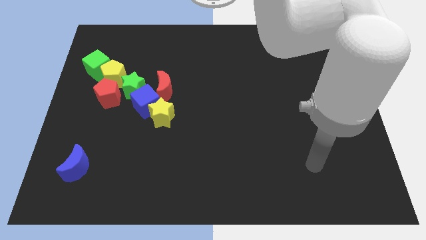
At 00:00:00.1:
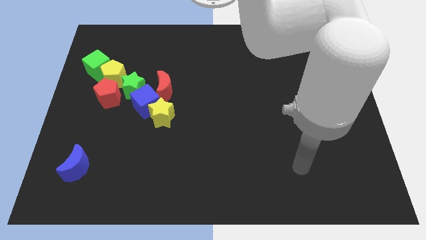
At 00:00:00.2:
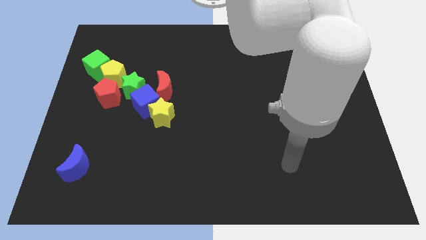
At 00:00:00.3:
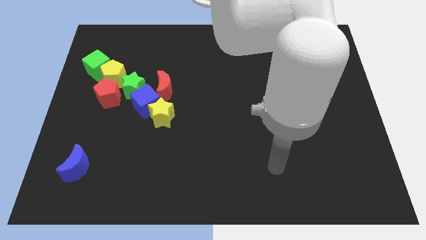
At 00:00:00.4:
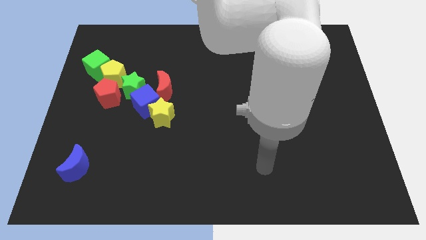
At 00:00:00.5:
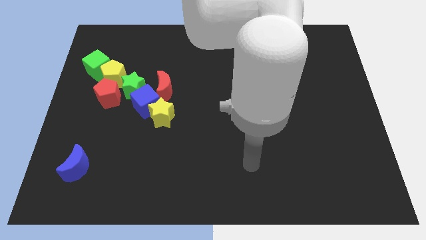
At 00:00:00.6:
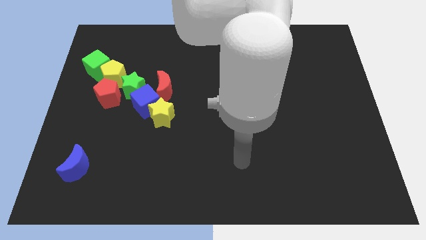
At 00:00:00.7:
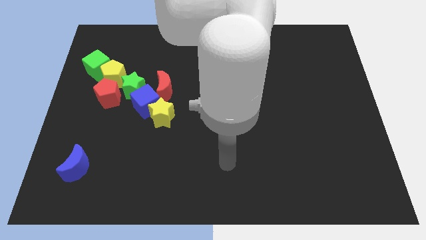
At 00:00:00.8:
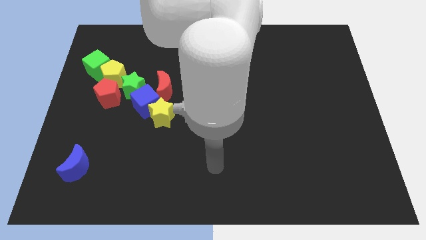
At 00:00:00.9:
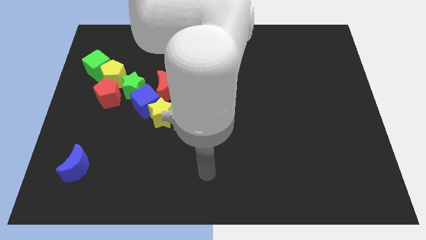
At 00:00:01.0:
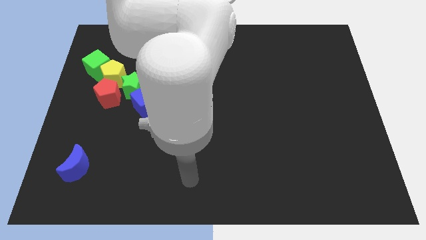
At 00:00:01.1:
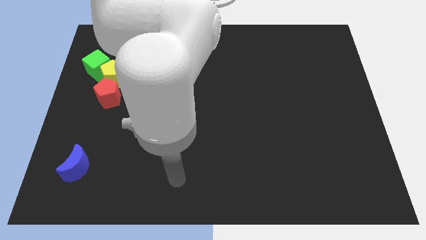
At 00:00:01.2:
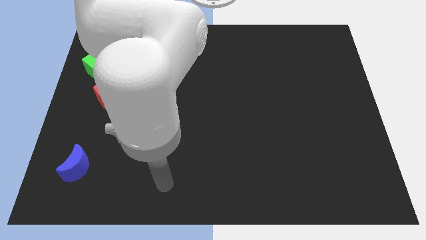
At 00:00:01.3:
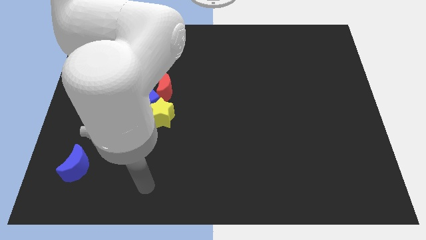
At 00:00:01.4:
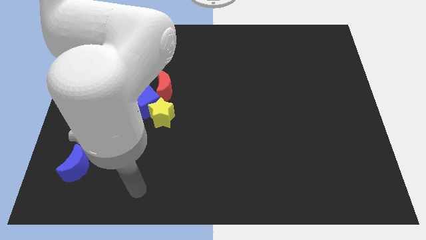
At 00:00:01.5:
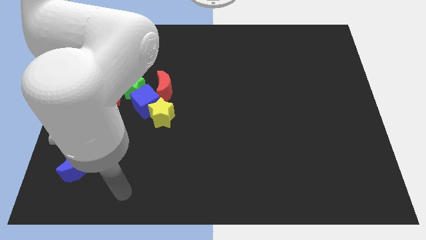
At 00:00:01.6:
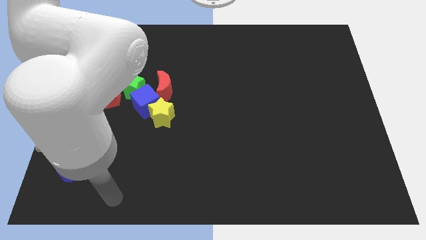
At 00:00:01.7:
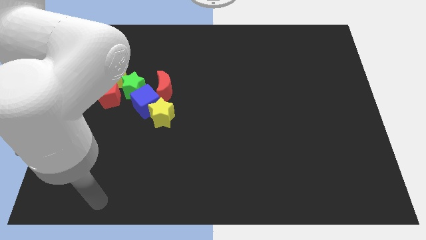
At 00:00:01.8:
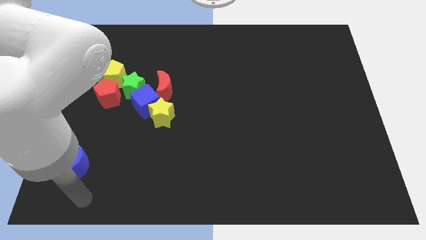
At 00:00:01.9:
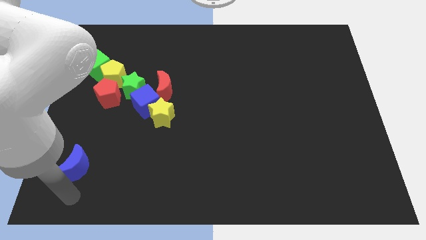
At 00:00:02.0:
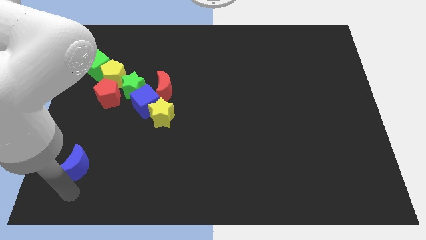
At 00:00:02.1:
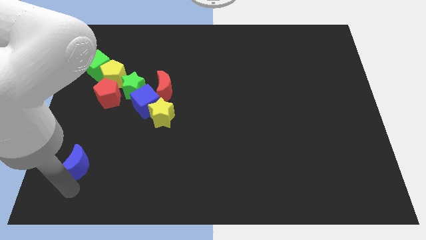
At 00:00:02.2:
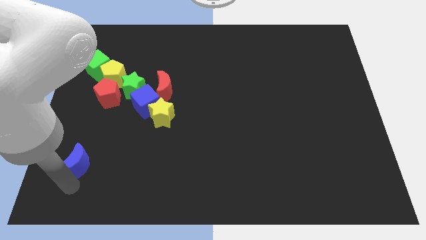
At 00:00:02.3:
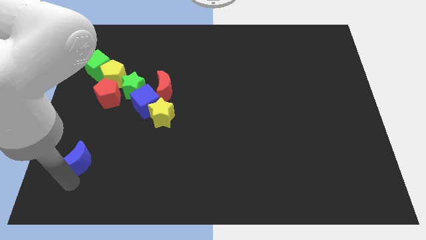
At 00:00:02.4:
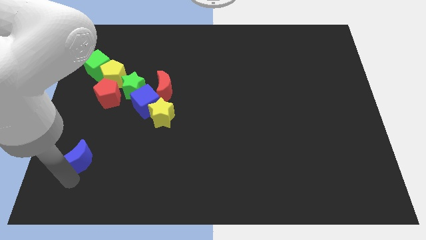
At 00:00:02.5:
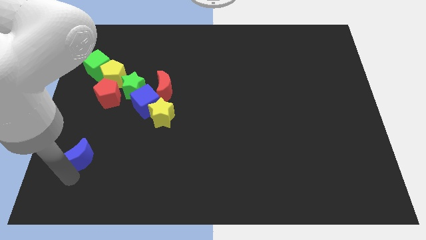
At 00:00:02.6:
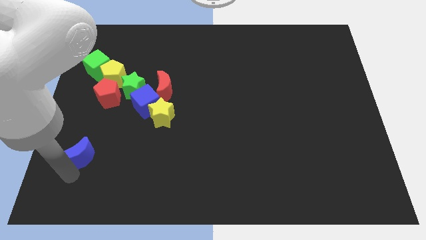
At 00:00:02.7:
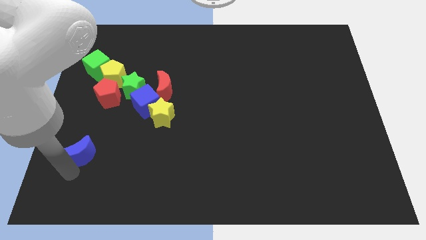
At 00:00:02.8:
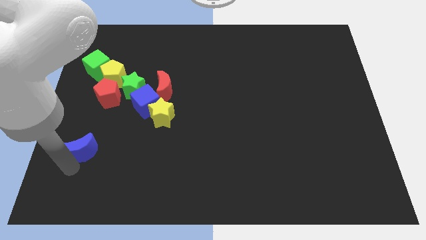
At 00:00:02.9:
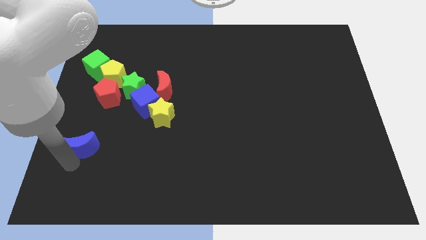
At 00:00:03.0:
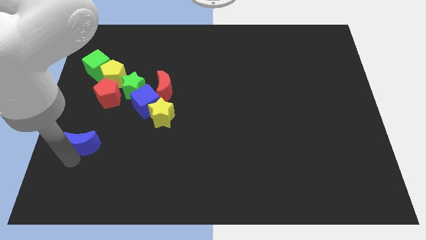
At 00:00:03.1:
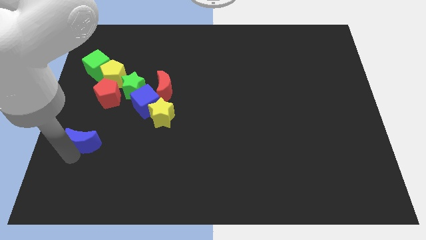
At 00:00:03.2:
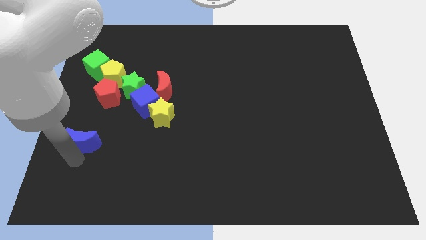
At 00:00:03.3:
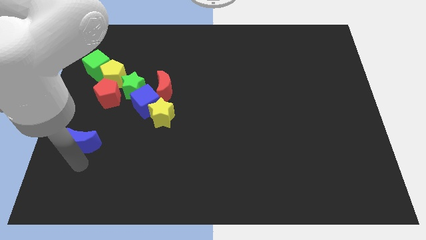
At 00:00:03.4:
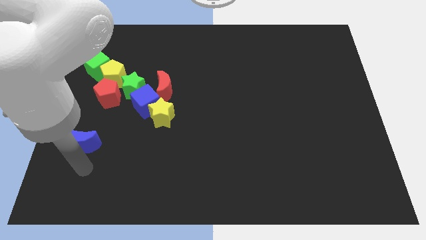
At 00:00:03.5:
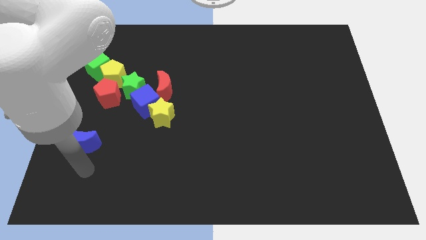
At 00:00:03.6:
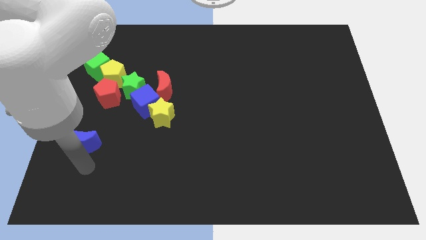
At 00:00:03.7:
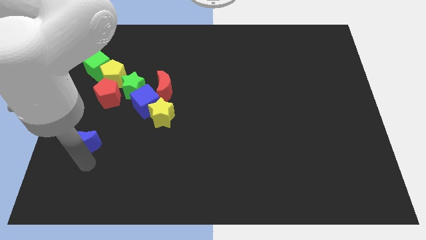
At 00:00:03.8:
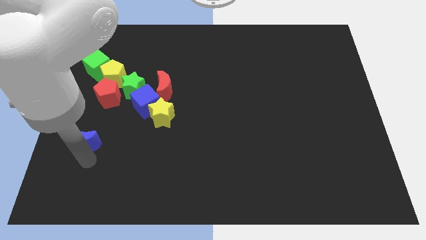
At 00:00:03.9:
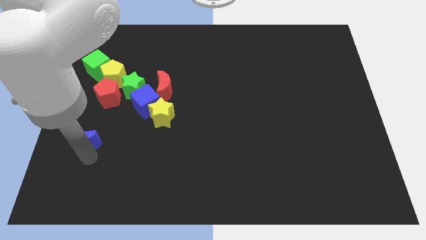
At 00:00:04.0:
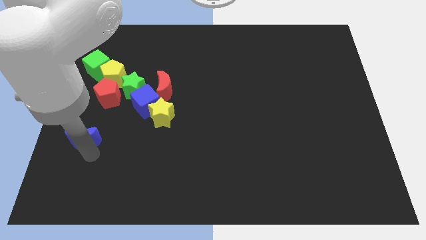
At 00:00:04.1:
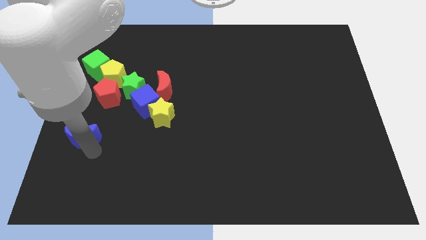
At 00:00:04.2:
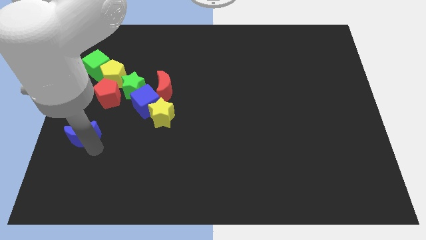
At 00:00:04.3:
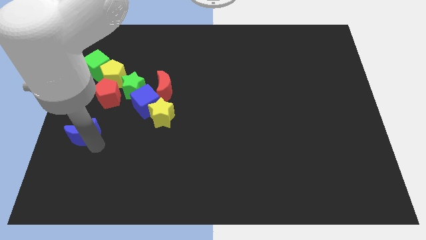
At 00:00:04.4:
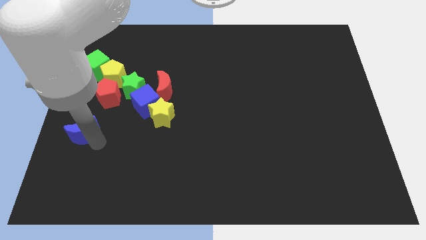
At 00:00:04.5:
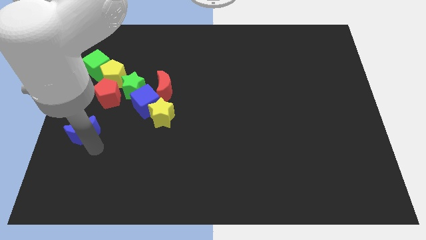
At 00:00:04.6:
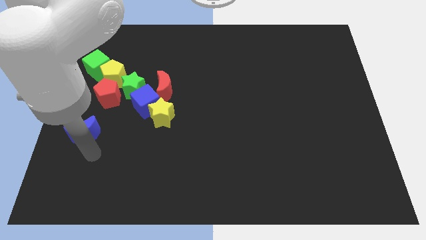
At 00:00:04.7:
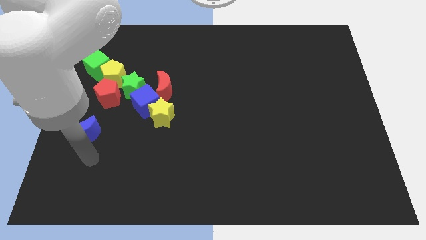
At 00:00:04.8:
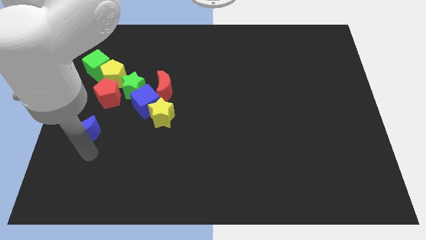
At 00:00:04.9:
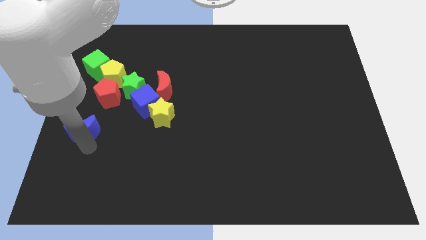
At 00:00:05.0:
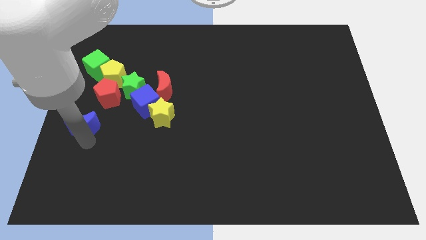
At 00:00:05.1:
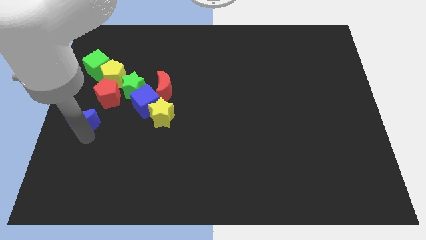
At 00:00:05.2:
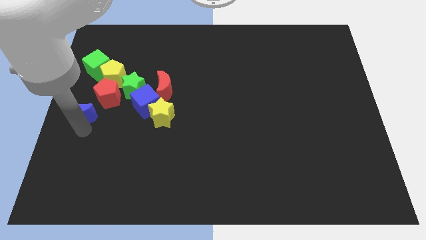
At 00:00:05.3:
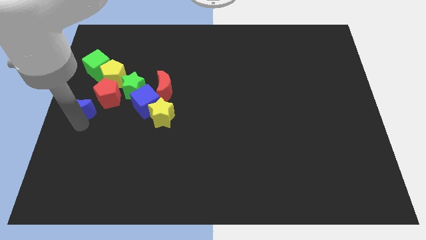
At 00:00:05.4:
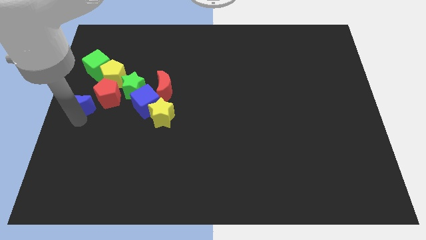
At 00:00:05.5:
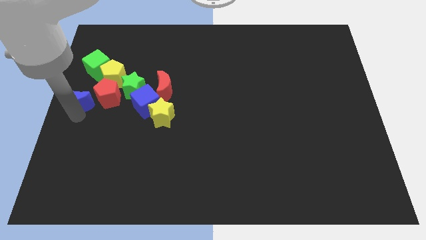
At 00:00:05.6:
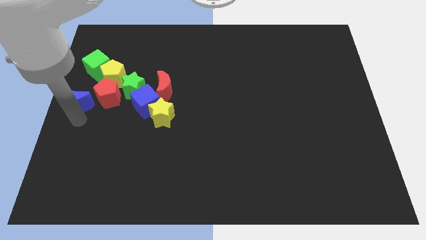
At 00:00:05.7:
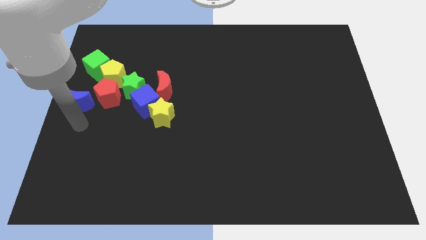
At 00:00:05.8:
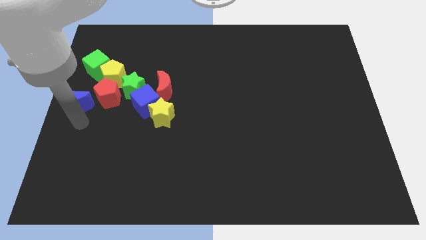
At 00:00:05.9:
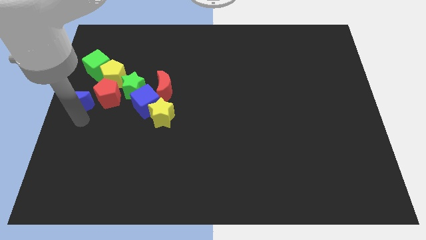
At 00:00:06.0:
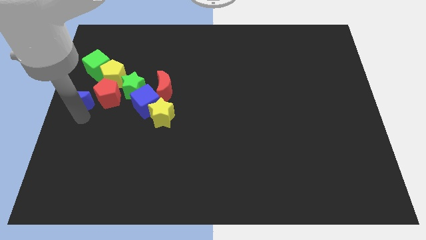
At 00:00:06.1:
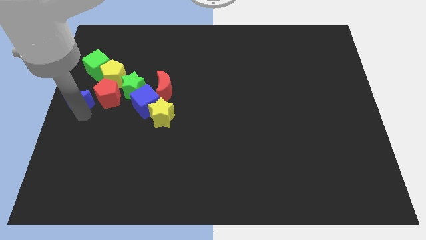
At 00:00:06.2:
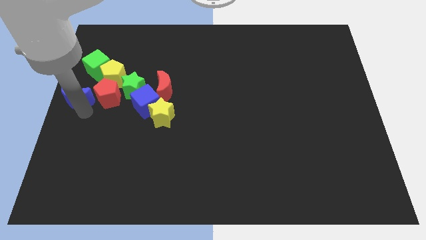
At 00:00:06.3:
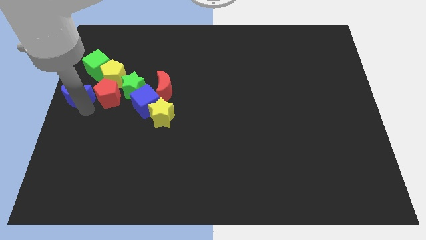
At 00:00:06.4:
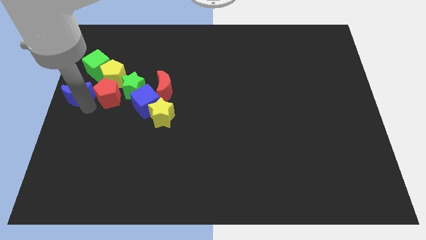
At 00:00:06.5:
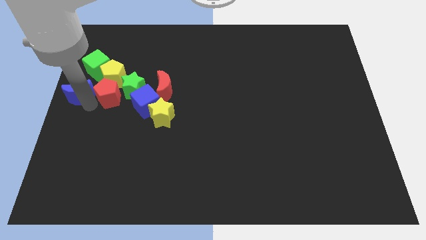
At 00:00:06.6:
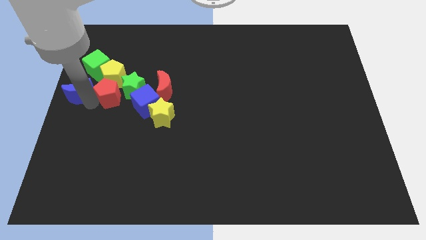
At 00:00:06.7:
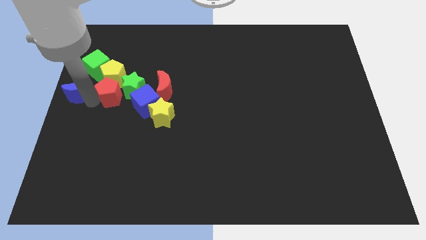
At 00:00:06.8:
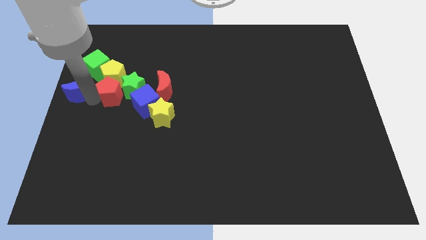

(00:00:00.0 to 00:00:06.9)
move the blue moon up

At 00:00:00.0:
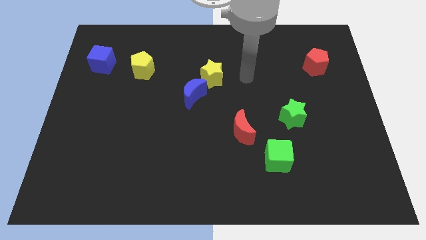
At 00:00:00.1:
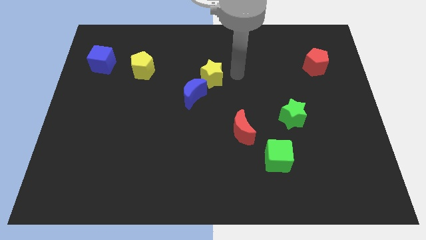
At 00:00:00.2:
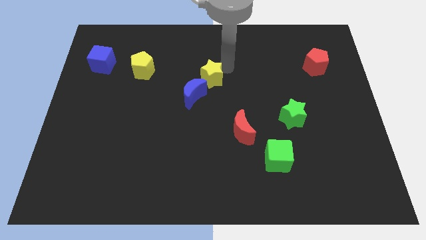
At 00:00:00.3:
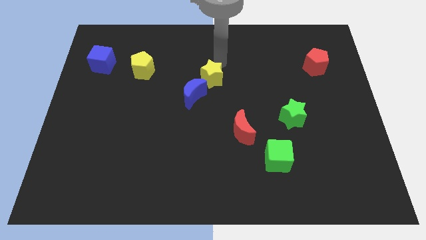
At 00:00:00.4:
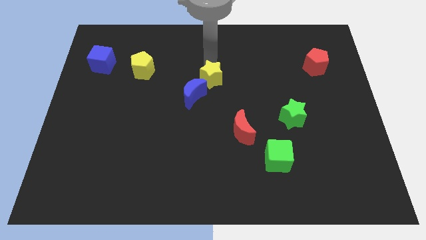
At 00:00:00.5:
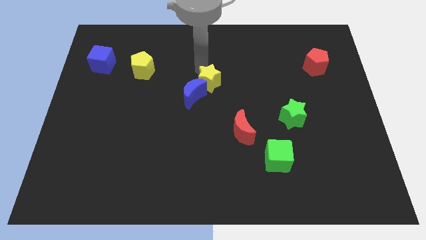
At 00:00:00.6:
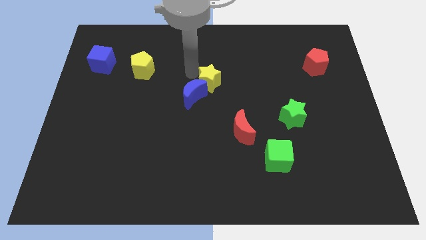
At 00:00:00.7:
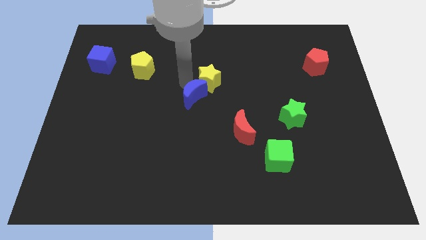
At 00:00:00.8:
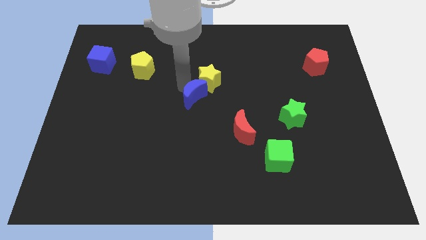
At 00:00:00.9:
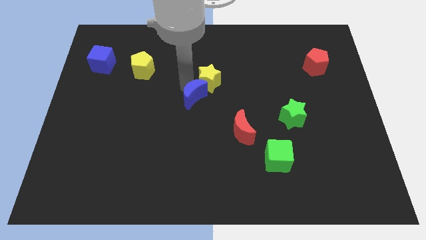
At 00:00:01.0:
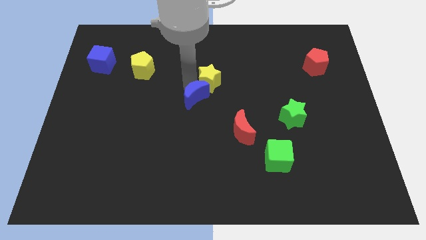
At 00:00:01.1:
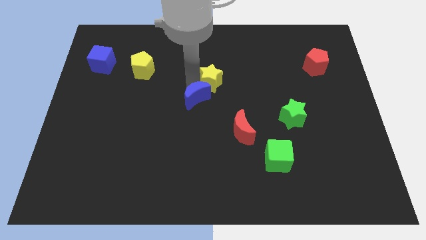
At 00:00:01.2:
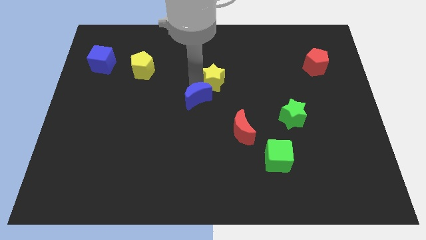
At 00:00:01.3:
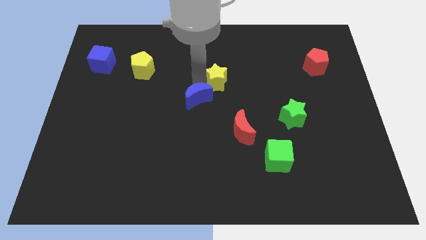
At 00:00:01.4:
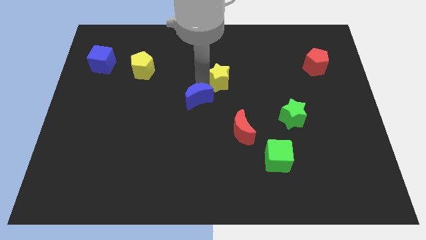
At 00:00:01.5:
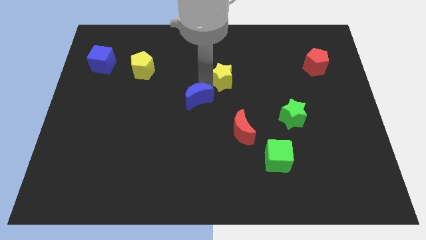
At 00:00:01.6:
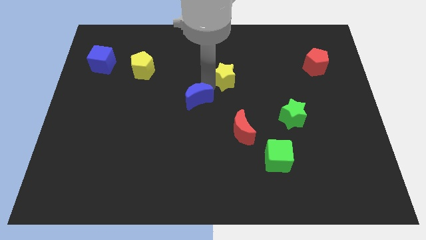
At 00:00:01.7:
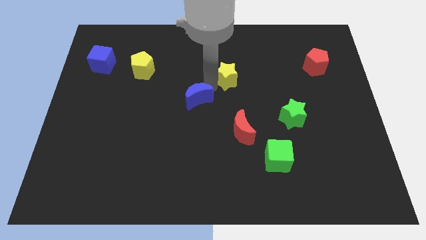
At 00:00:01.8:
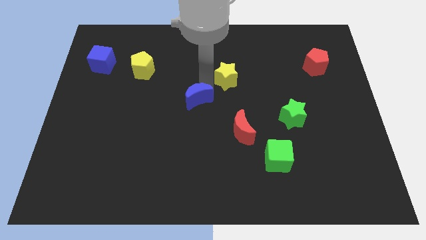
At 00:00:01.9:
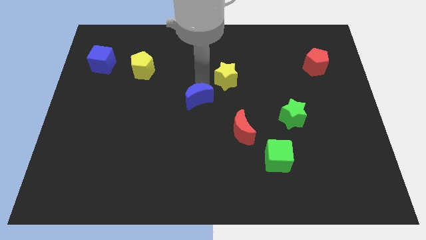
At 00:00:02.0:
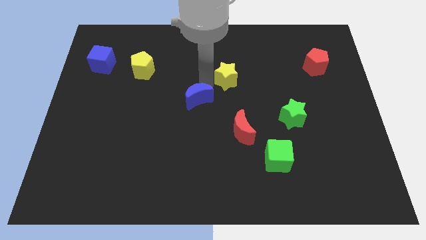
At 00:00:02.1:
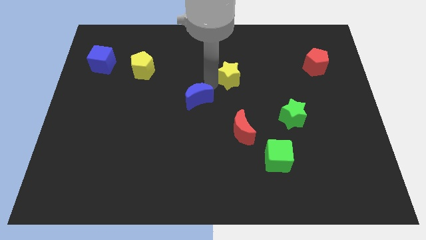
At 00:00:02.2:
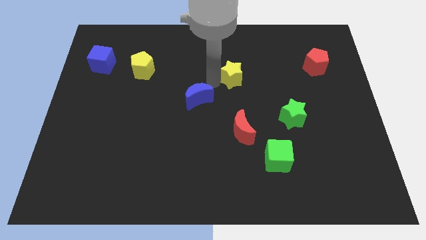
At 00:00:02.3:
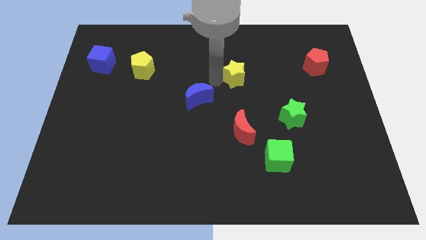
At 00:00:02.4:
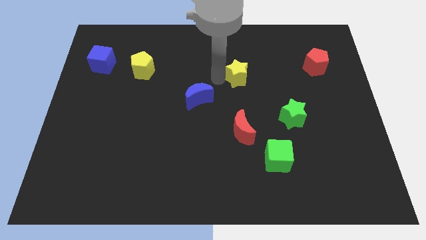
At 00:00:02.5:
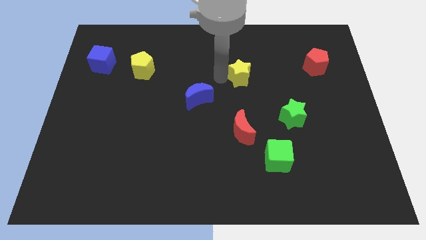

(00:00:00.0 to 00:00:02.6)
push the yellow star to the right slightly
